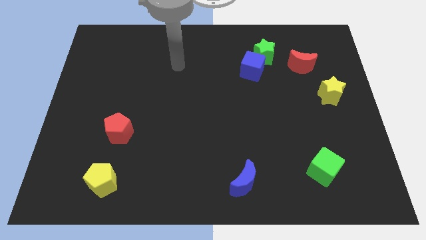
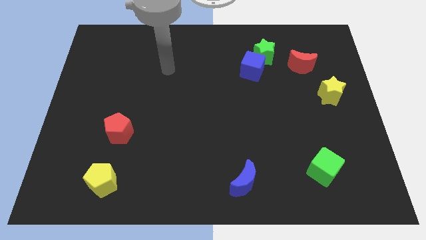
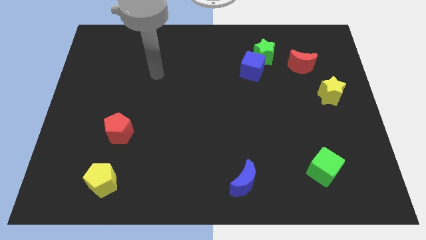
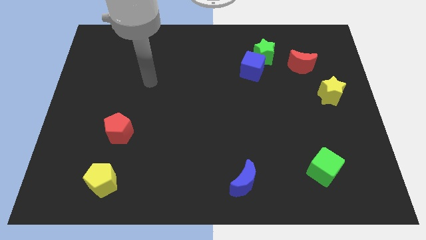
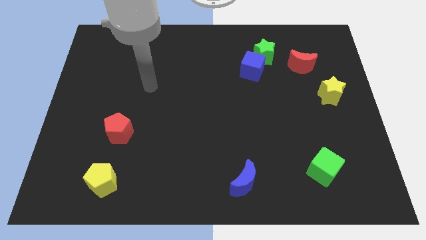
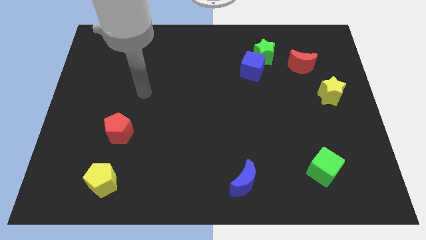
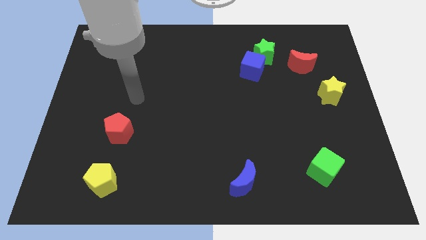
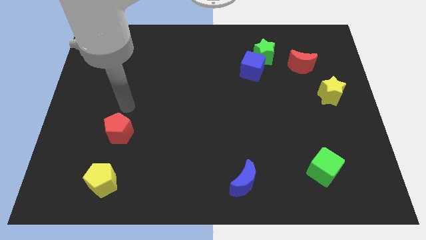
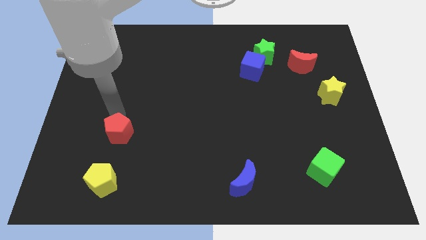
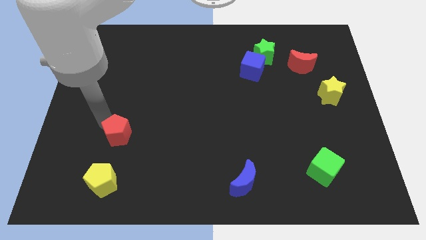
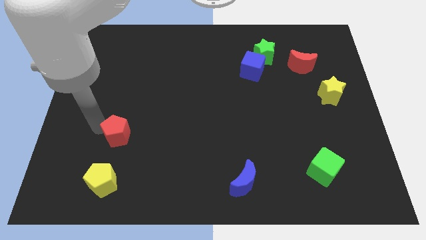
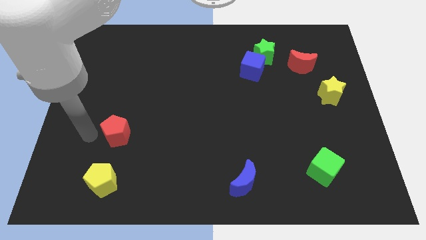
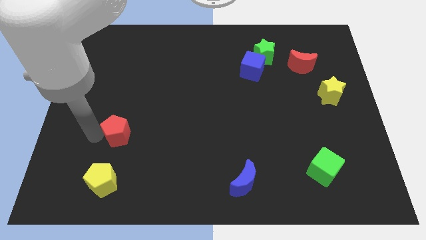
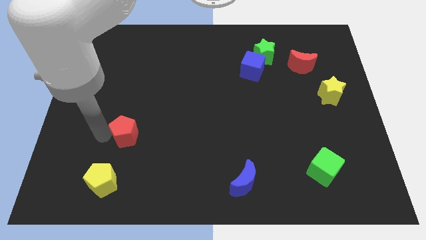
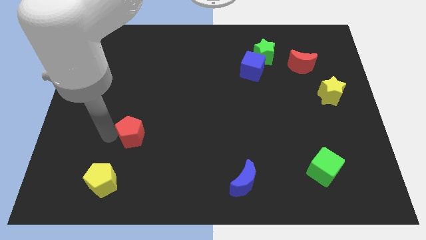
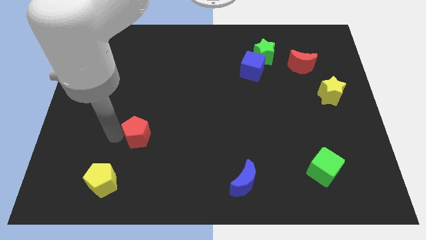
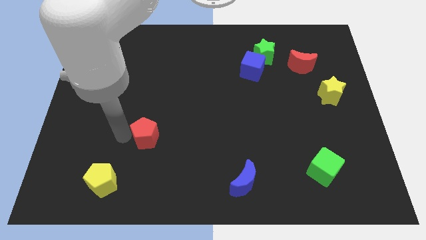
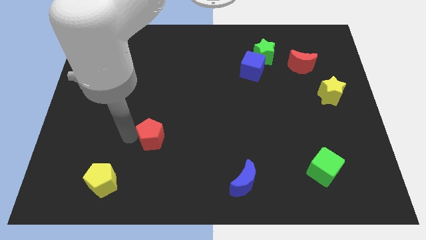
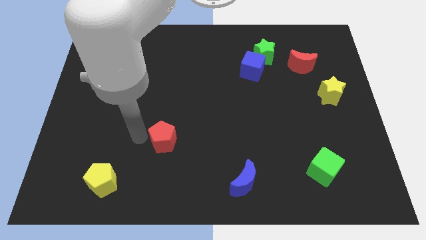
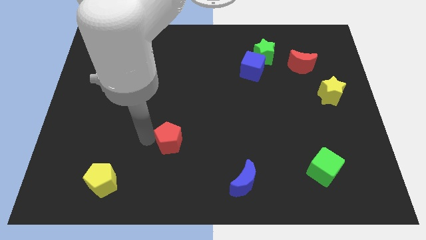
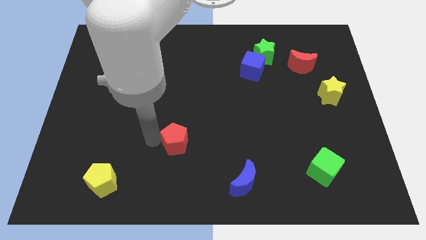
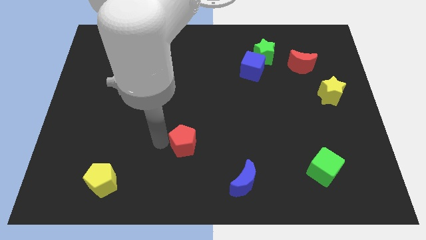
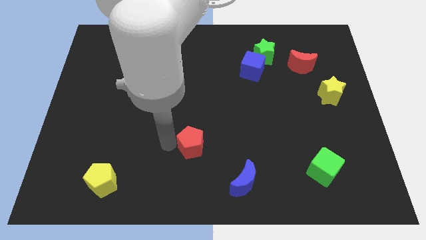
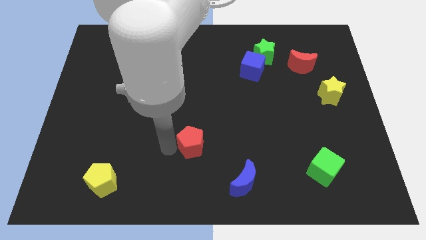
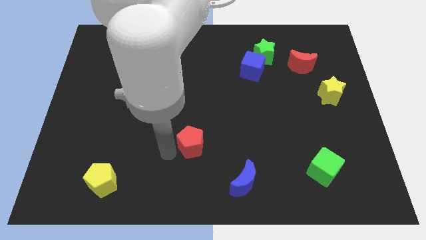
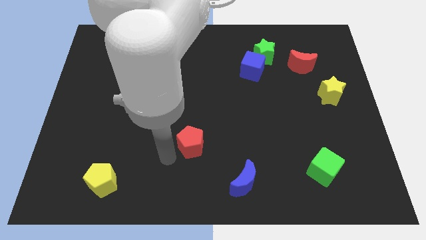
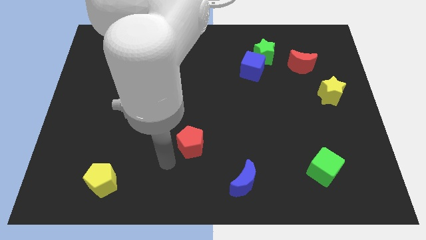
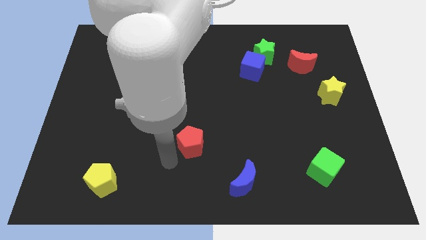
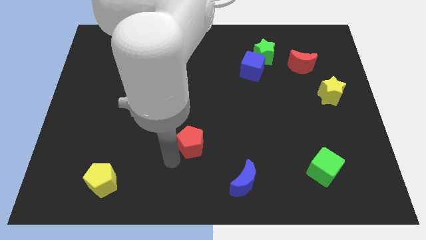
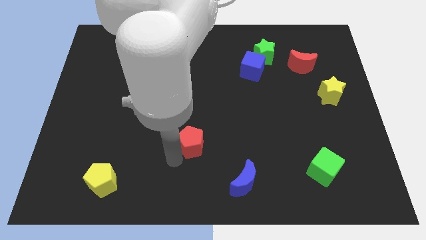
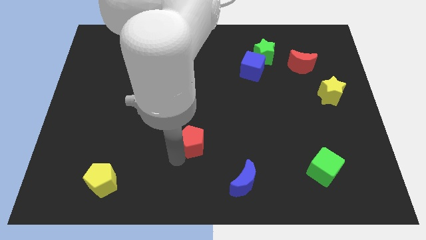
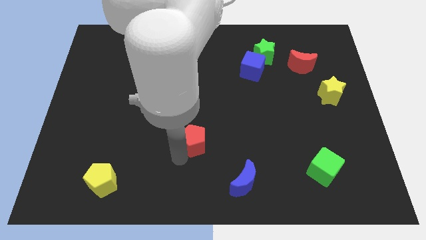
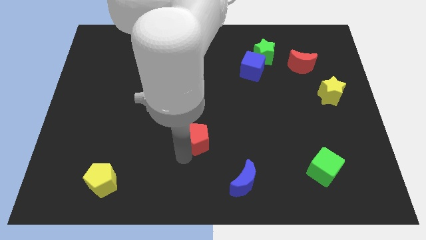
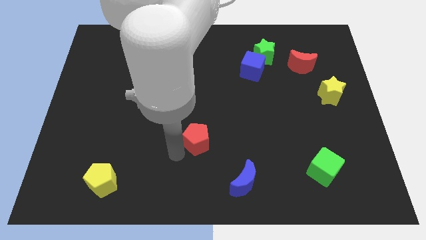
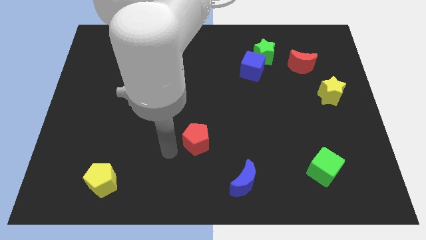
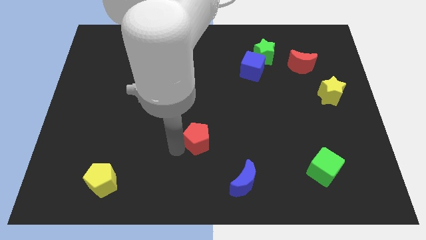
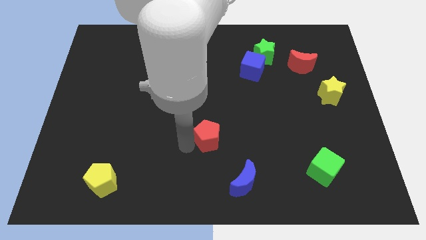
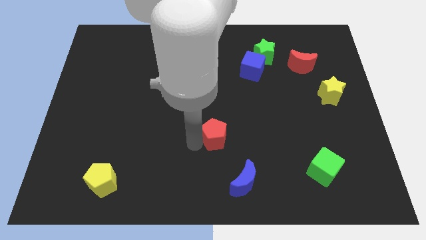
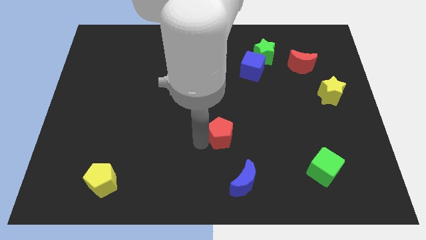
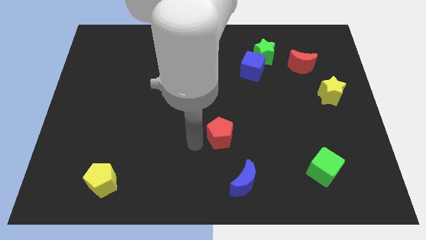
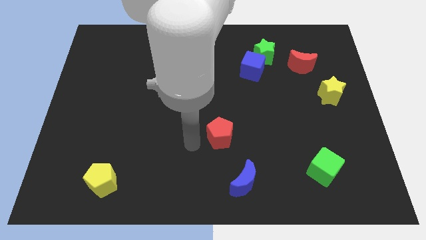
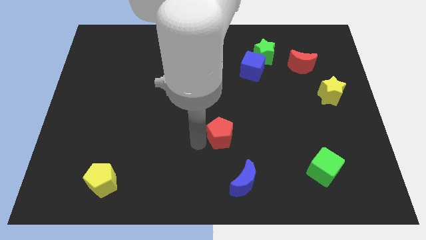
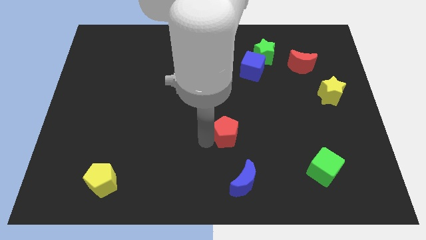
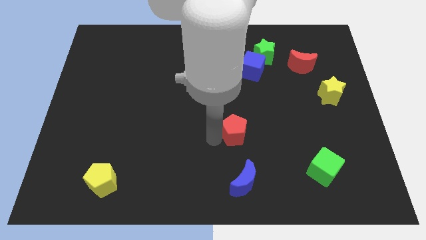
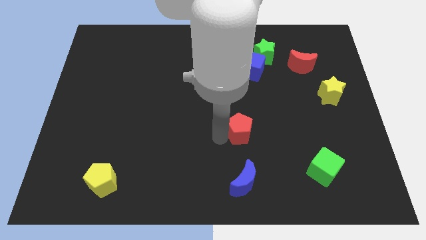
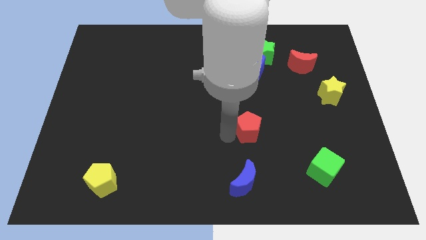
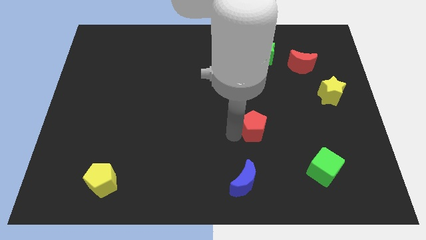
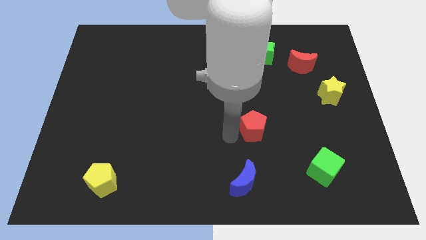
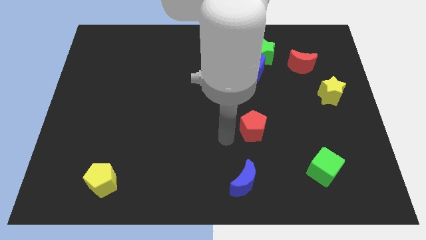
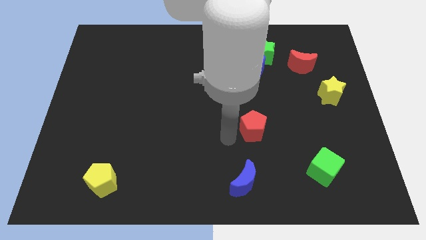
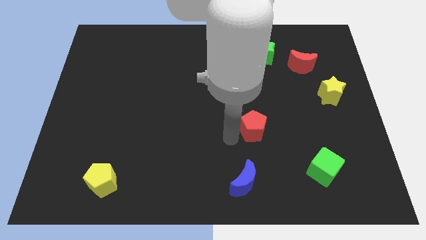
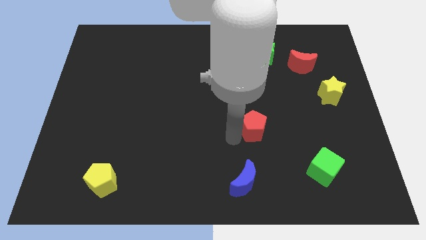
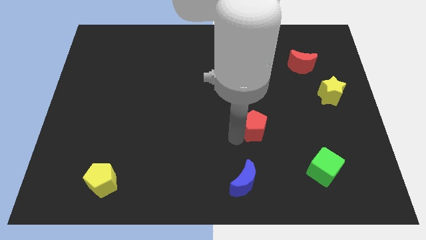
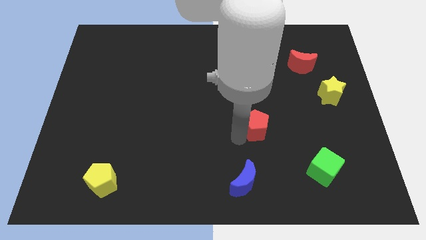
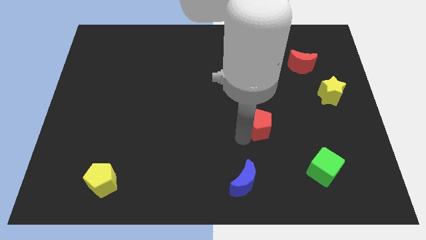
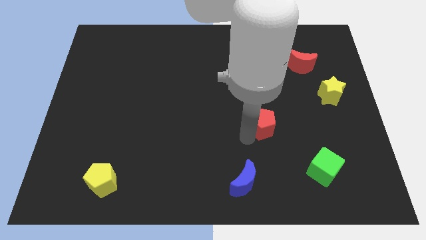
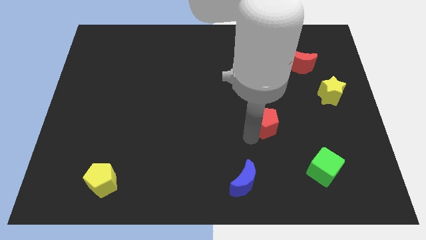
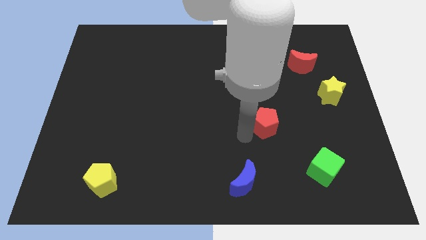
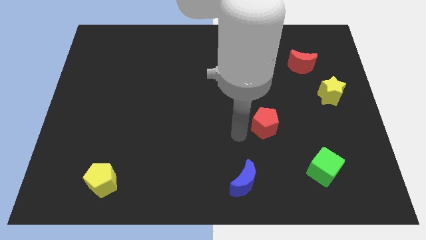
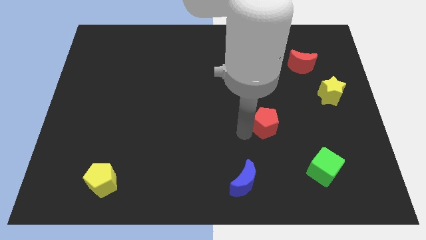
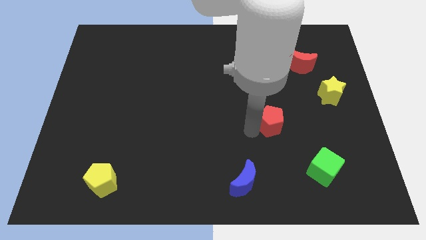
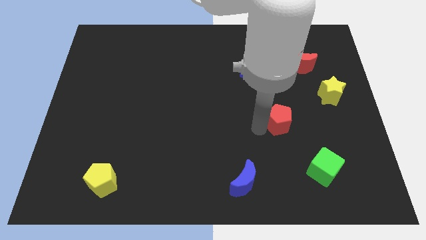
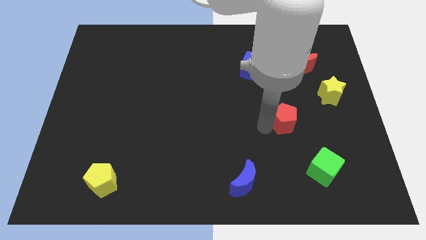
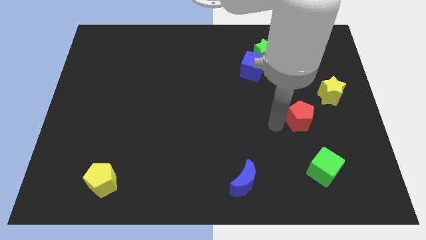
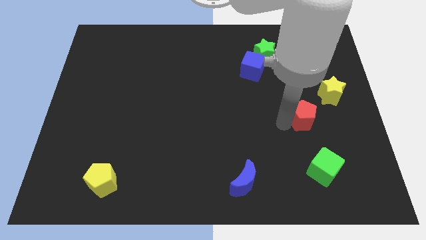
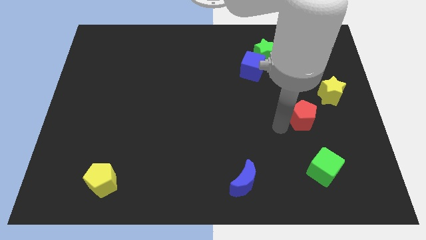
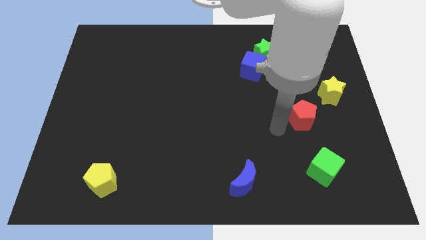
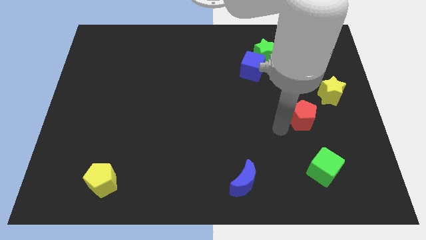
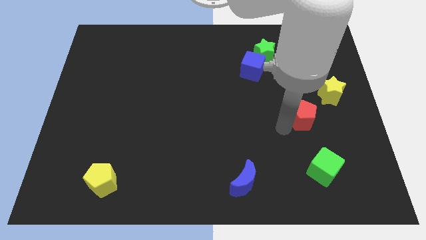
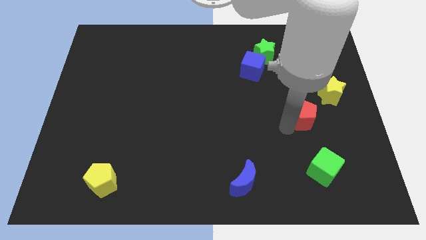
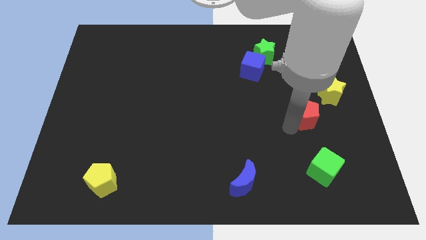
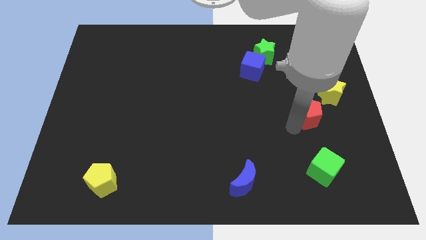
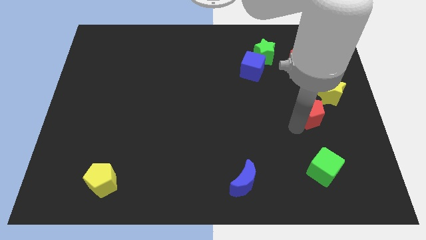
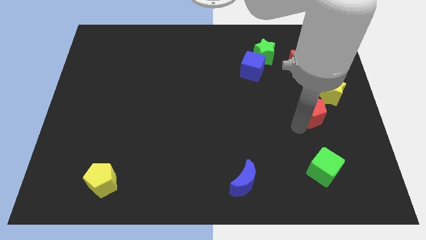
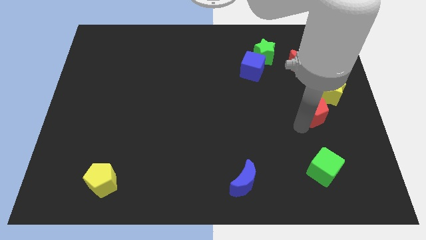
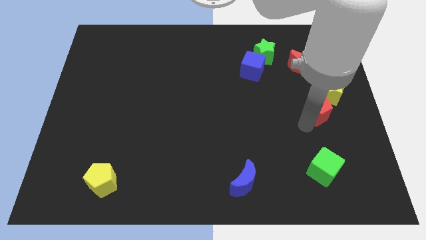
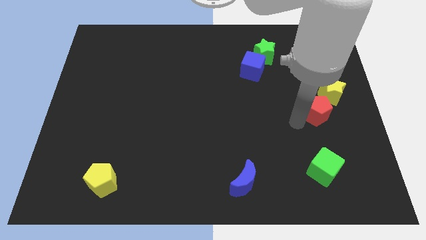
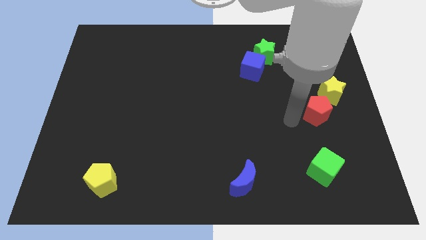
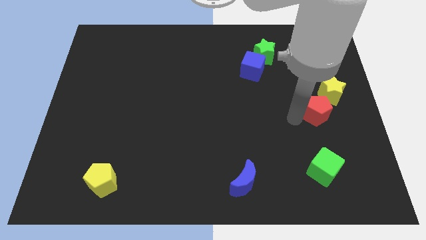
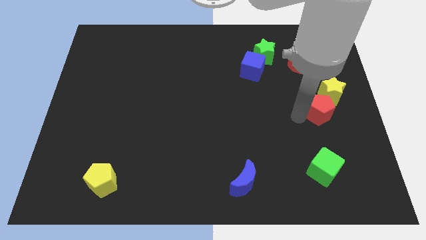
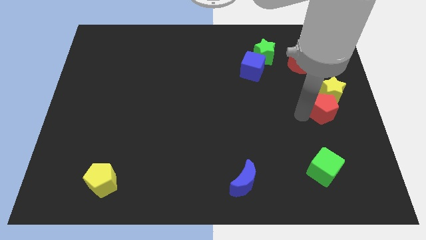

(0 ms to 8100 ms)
move the red pentagon to the right side
